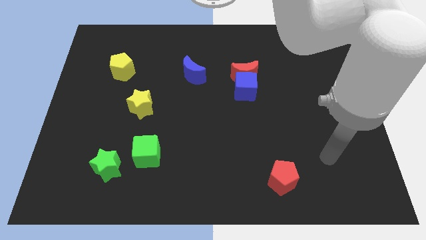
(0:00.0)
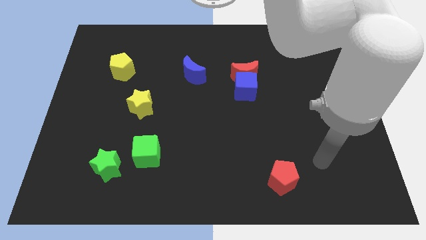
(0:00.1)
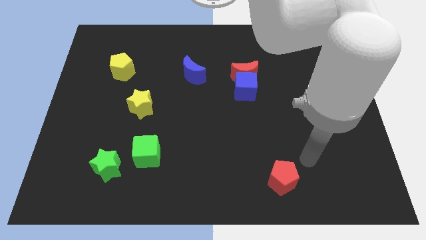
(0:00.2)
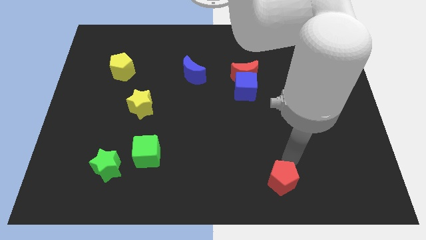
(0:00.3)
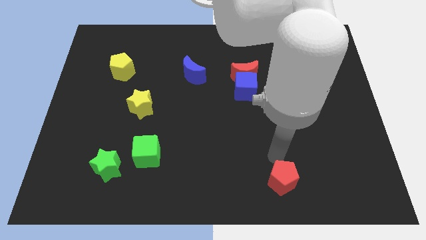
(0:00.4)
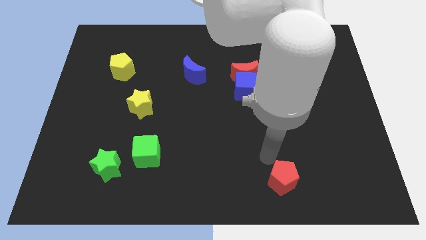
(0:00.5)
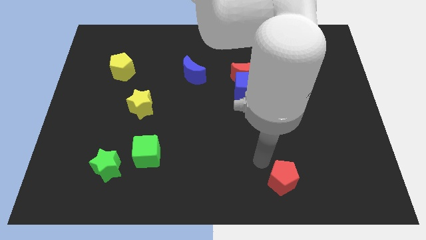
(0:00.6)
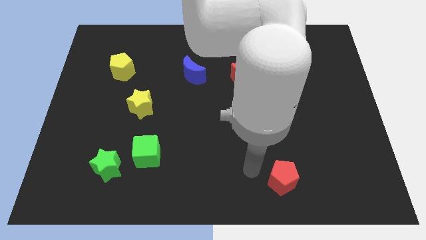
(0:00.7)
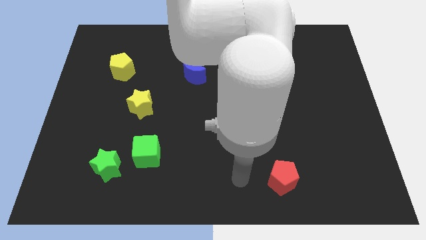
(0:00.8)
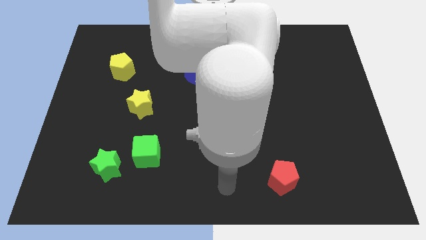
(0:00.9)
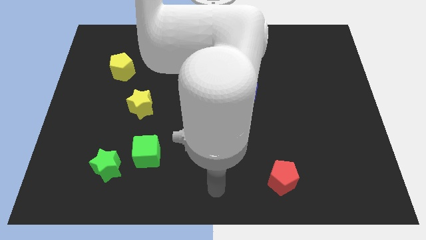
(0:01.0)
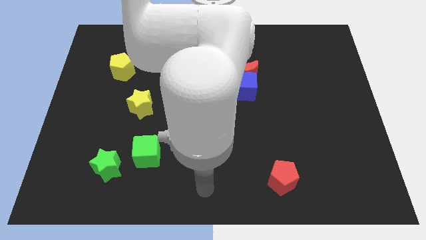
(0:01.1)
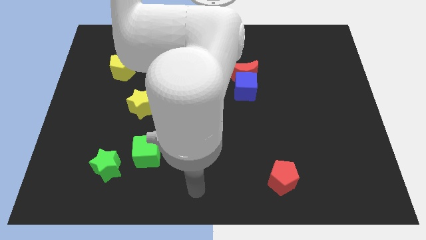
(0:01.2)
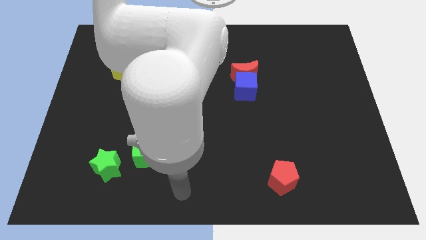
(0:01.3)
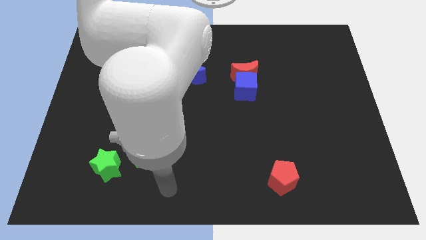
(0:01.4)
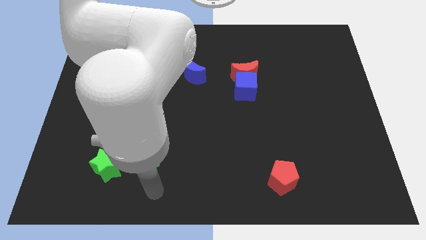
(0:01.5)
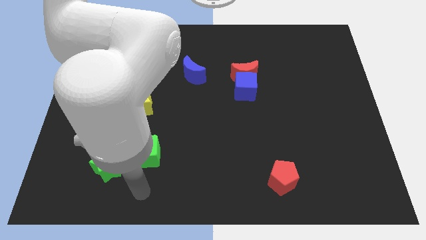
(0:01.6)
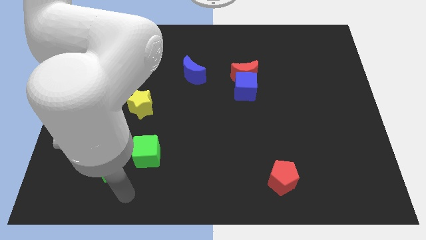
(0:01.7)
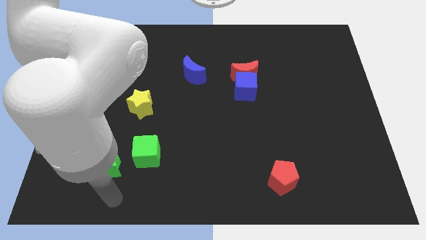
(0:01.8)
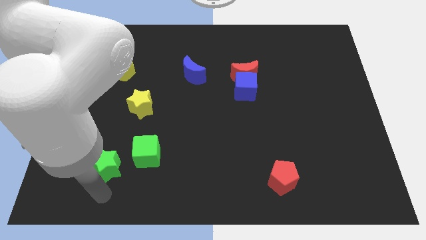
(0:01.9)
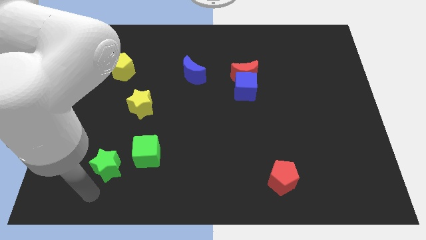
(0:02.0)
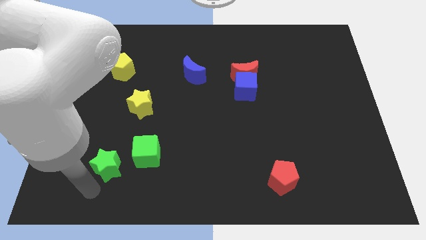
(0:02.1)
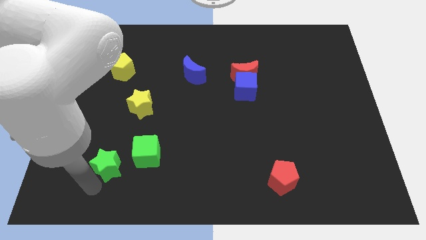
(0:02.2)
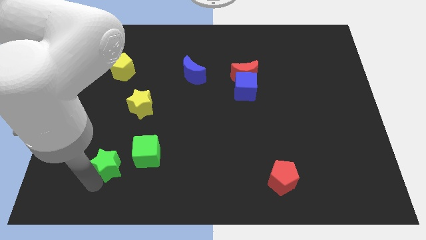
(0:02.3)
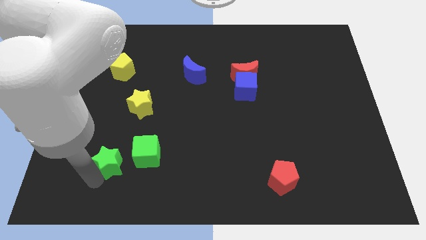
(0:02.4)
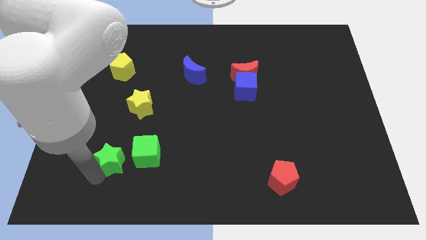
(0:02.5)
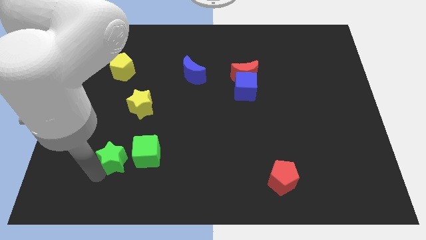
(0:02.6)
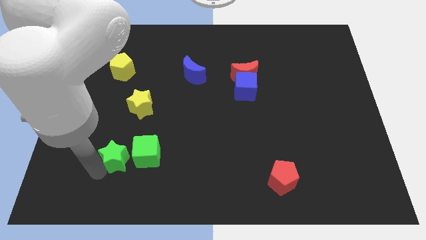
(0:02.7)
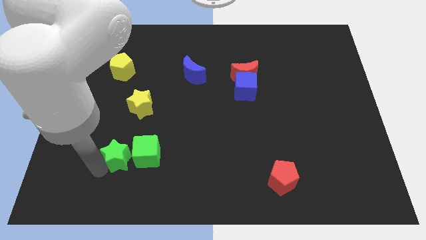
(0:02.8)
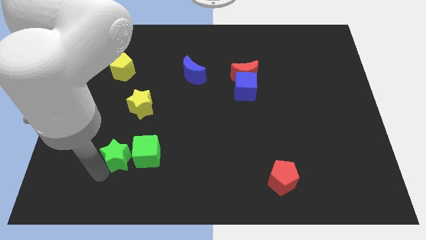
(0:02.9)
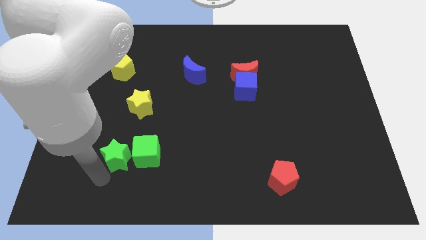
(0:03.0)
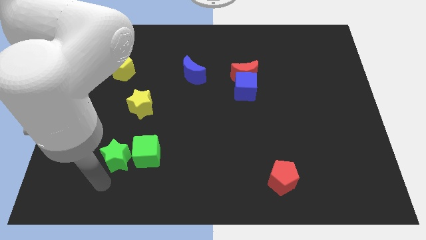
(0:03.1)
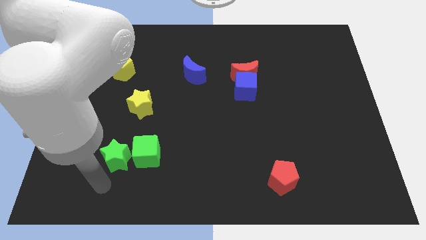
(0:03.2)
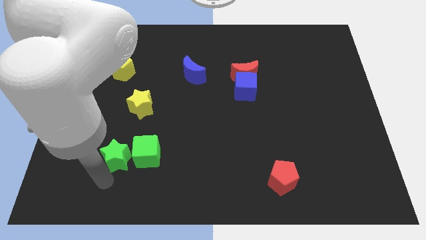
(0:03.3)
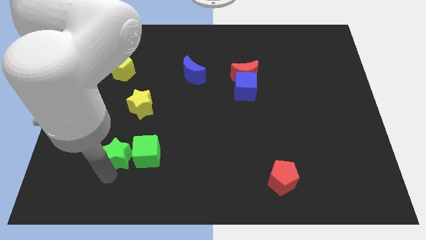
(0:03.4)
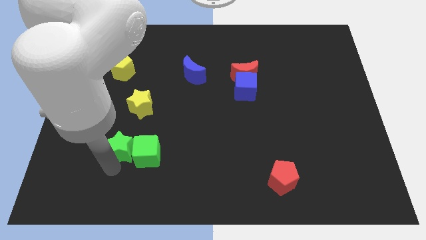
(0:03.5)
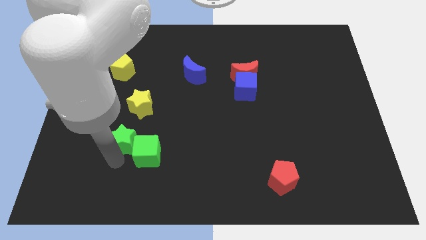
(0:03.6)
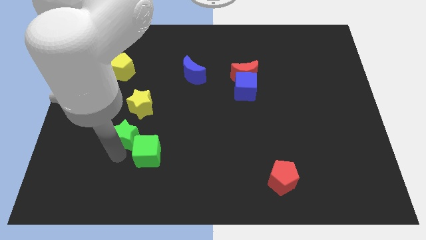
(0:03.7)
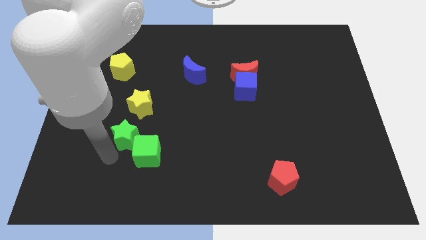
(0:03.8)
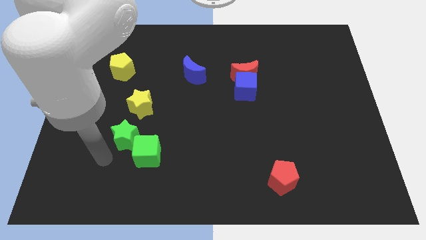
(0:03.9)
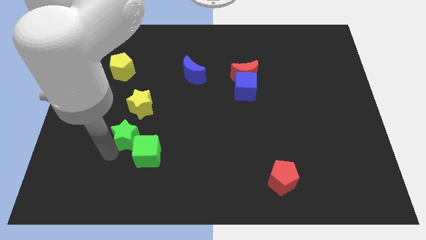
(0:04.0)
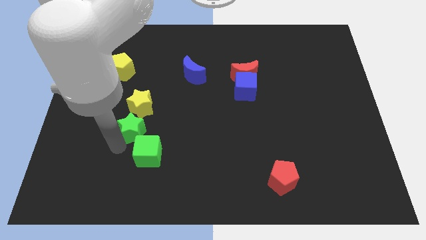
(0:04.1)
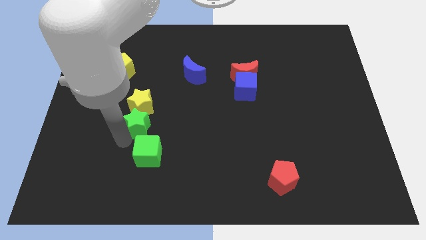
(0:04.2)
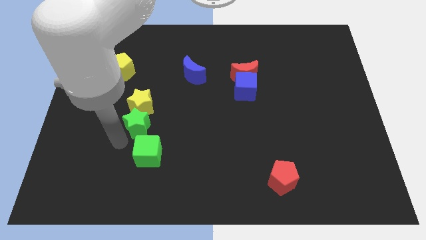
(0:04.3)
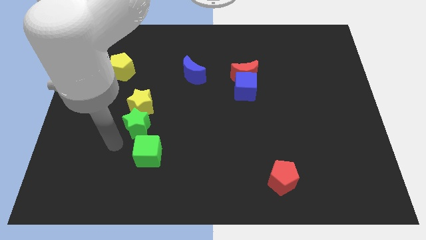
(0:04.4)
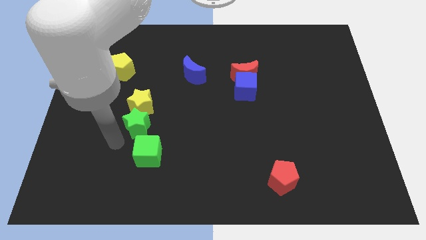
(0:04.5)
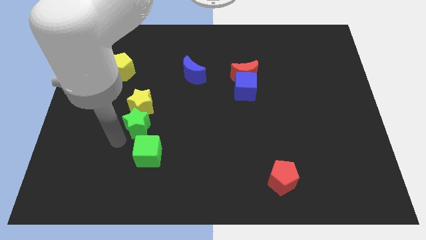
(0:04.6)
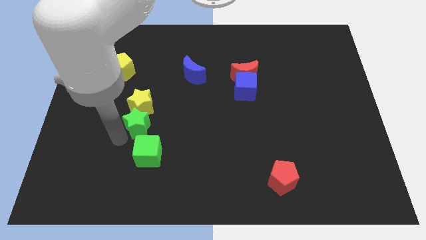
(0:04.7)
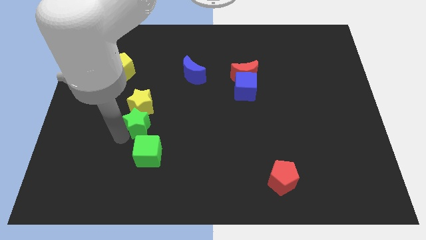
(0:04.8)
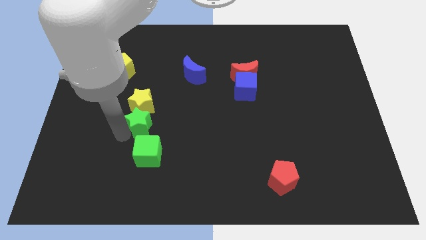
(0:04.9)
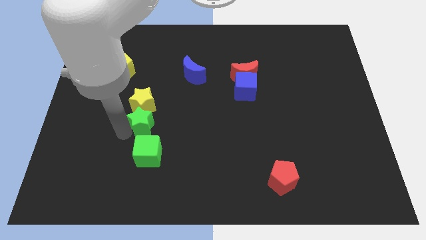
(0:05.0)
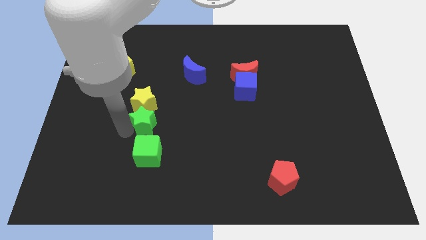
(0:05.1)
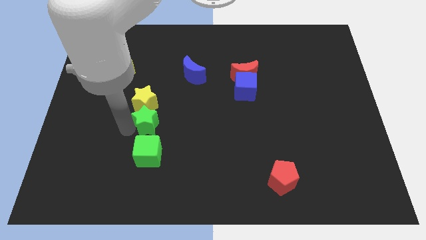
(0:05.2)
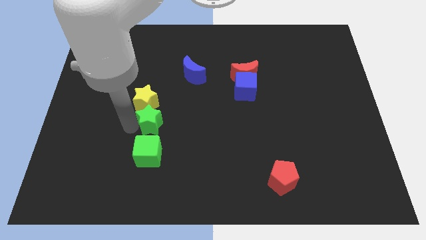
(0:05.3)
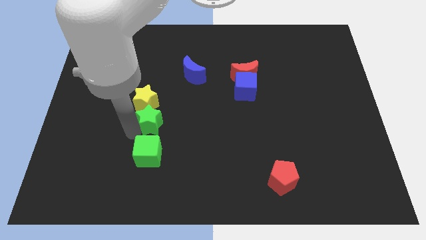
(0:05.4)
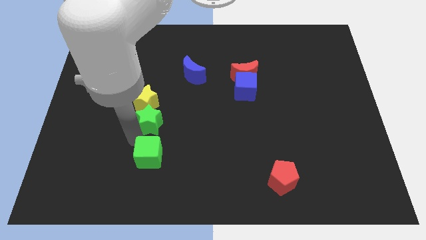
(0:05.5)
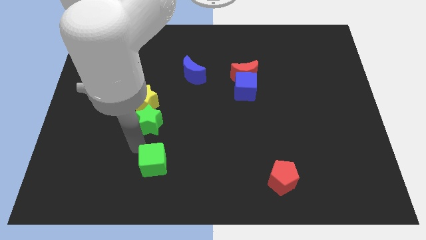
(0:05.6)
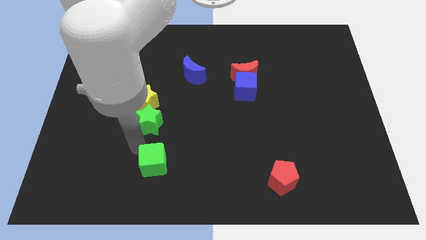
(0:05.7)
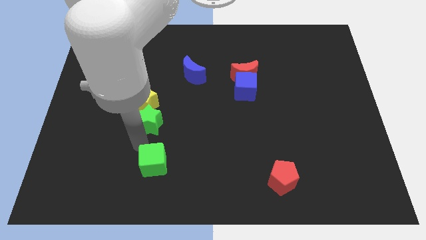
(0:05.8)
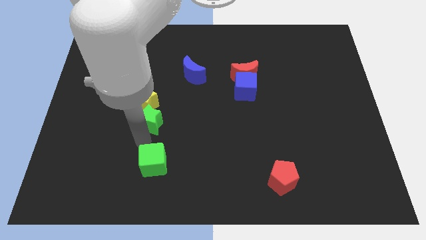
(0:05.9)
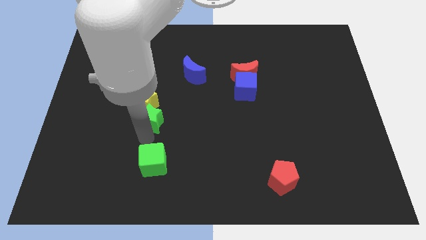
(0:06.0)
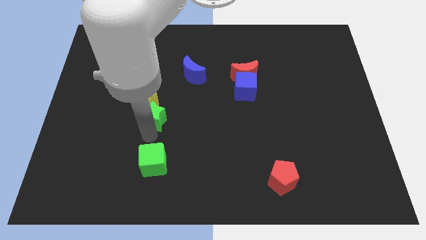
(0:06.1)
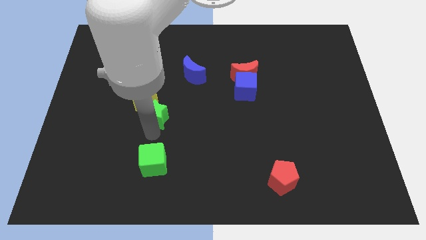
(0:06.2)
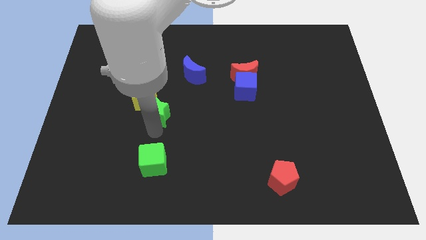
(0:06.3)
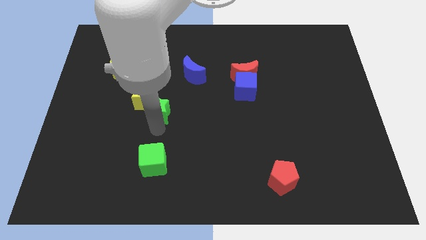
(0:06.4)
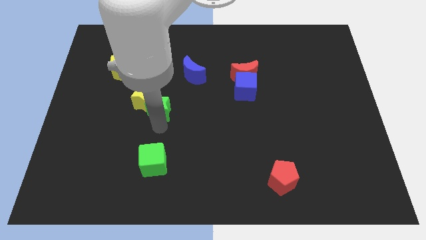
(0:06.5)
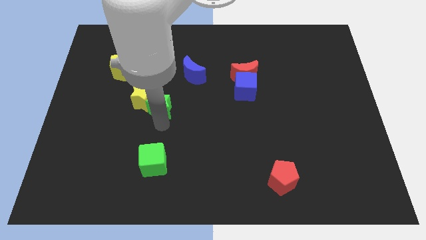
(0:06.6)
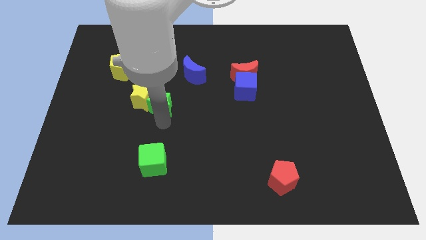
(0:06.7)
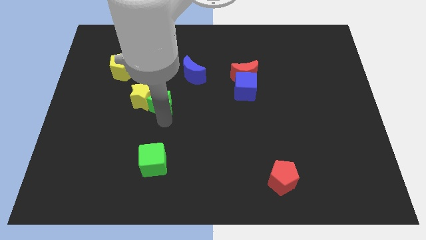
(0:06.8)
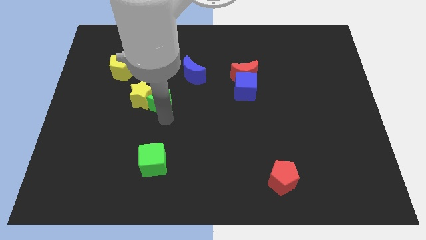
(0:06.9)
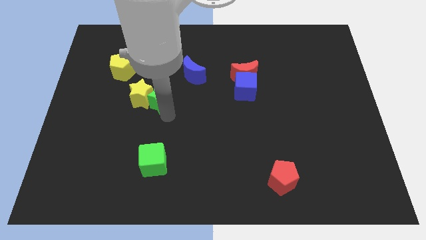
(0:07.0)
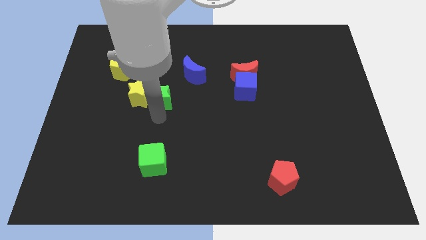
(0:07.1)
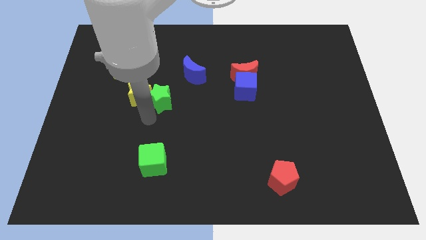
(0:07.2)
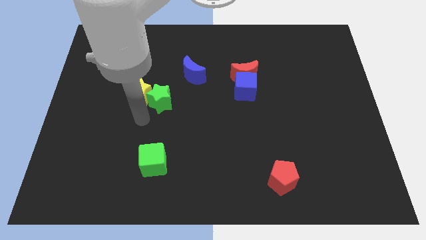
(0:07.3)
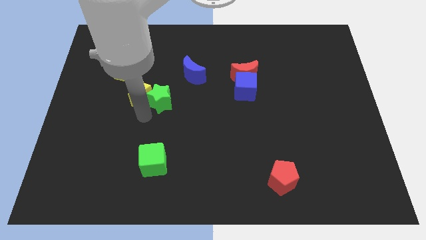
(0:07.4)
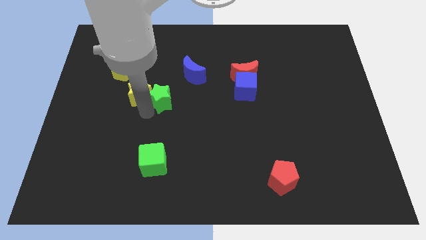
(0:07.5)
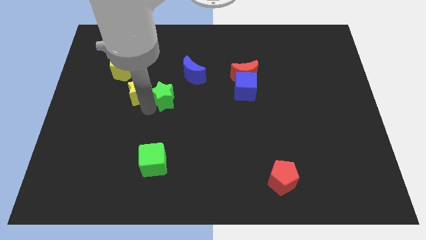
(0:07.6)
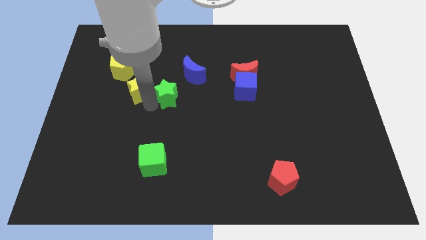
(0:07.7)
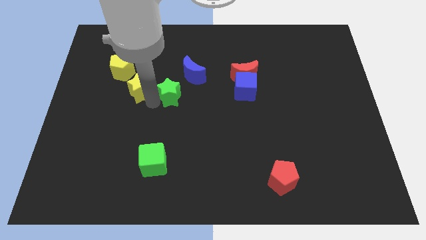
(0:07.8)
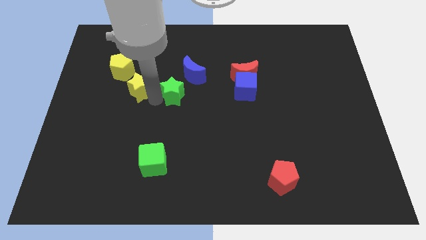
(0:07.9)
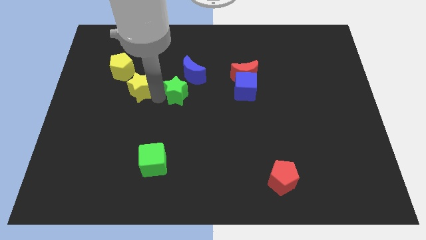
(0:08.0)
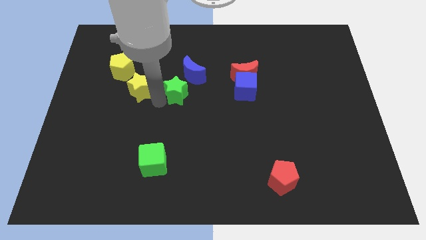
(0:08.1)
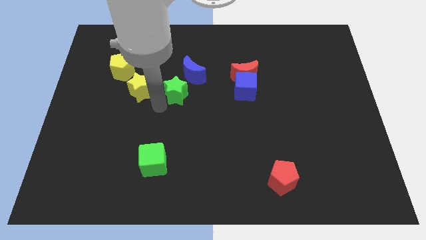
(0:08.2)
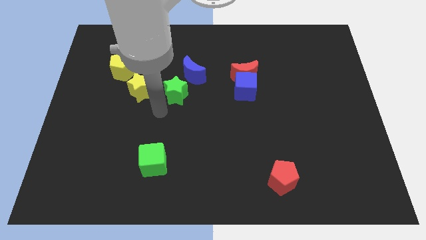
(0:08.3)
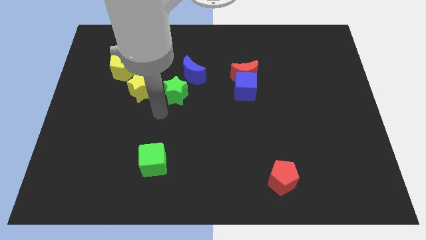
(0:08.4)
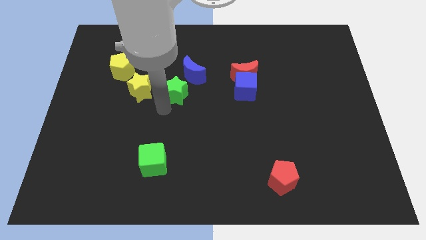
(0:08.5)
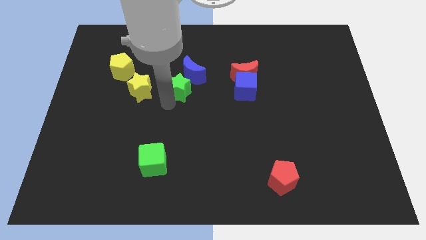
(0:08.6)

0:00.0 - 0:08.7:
slide the green star close to the blue moon
